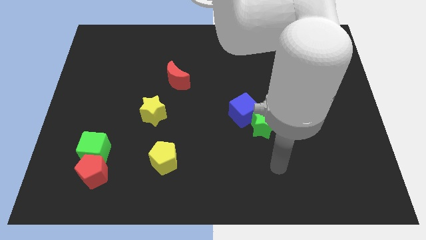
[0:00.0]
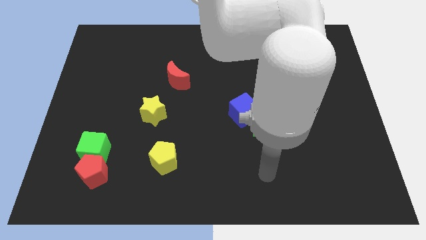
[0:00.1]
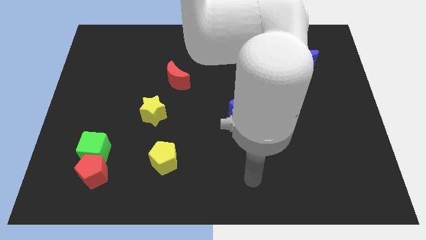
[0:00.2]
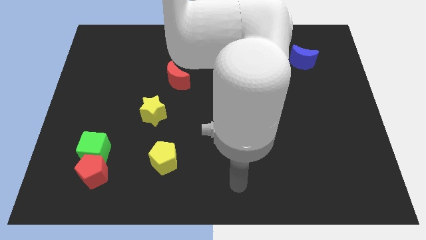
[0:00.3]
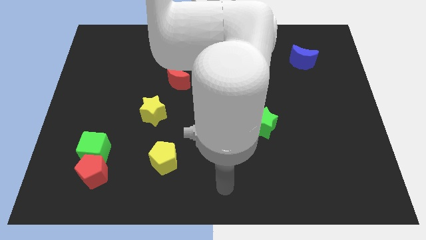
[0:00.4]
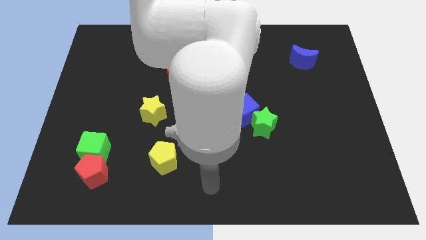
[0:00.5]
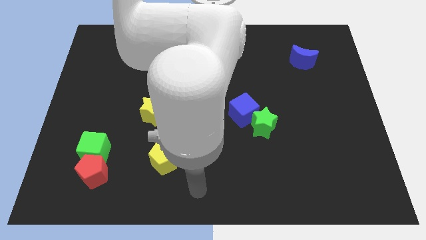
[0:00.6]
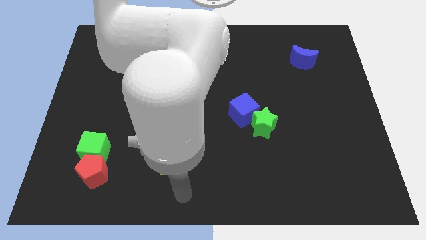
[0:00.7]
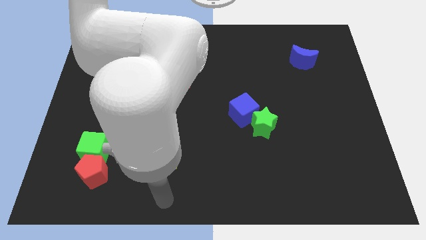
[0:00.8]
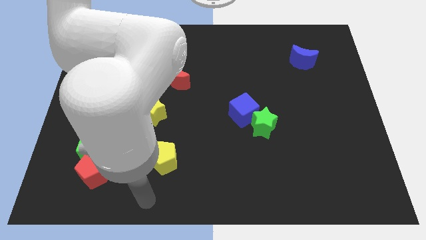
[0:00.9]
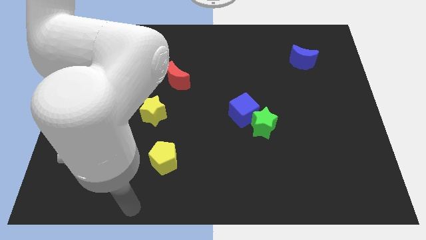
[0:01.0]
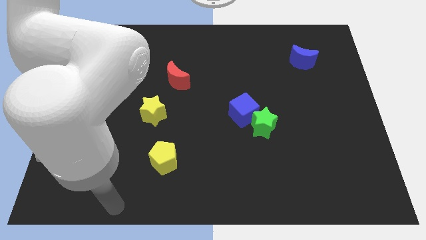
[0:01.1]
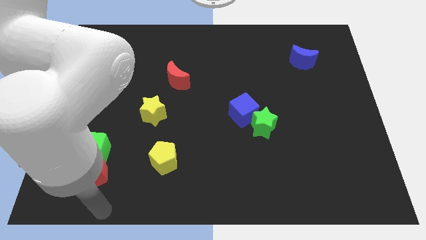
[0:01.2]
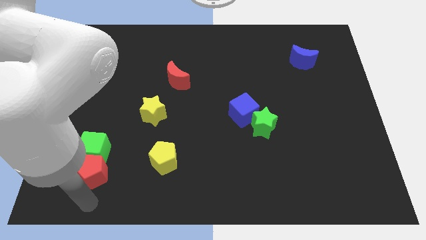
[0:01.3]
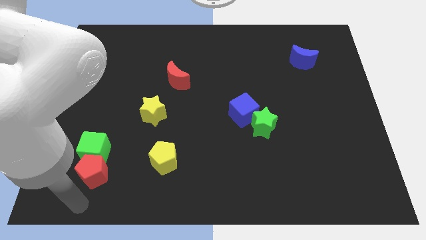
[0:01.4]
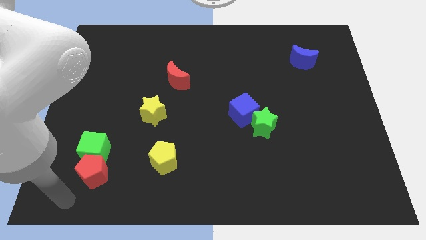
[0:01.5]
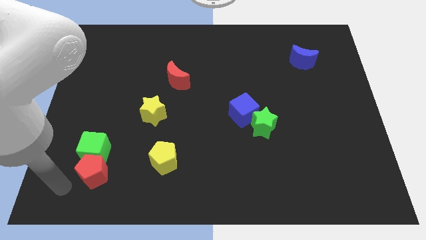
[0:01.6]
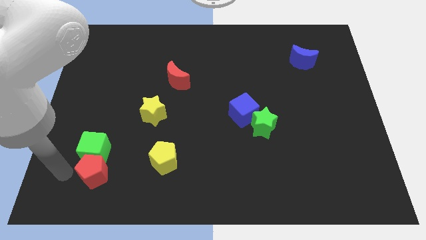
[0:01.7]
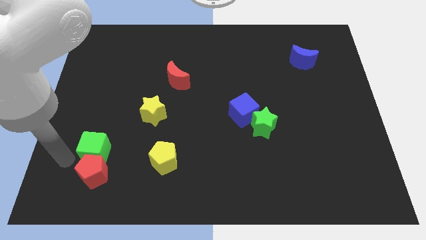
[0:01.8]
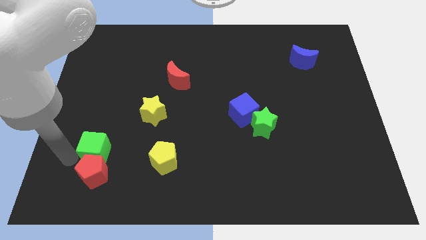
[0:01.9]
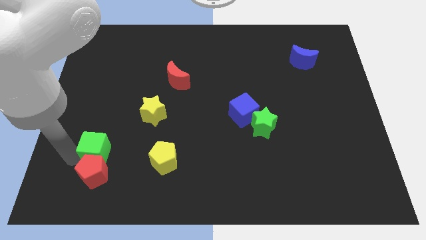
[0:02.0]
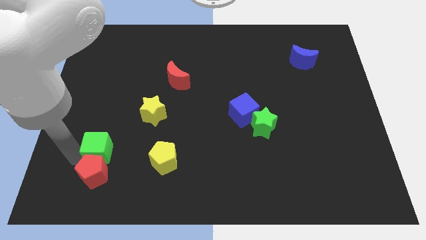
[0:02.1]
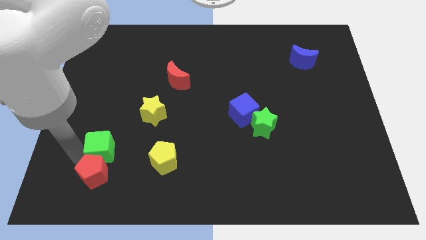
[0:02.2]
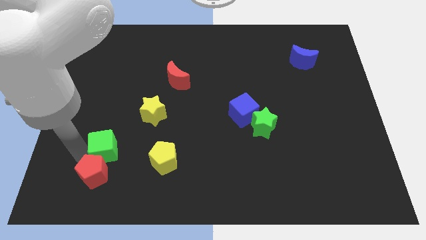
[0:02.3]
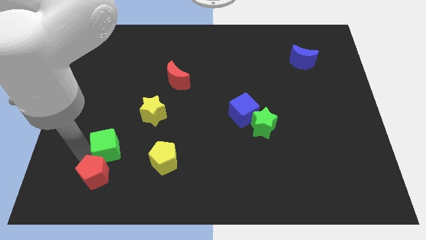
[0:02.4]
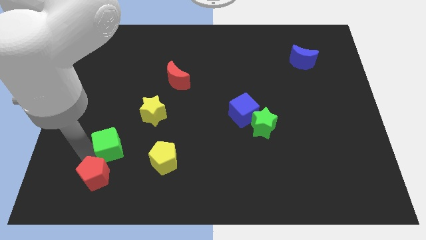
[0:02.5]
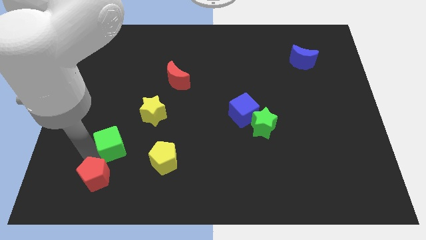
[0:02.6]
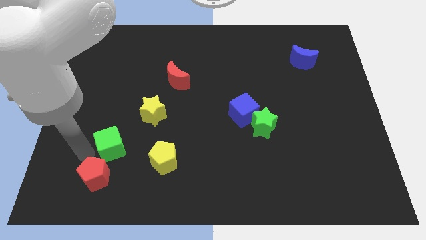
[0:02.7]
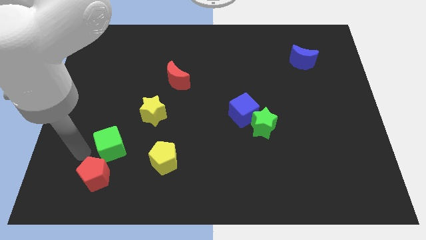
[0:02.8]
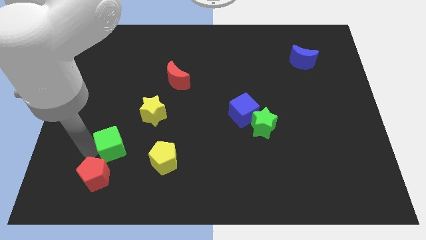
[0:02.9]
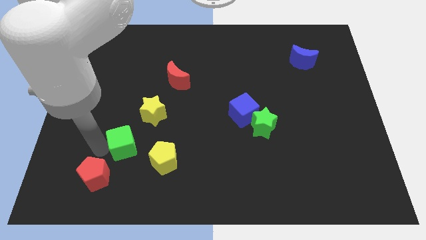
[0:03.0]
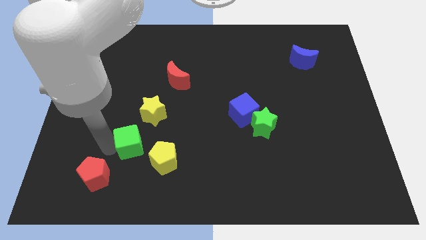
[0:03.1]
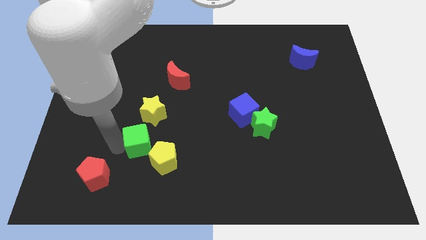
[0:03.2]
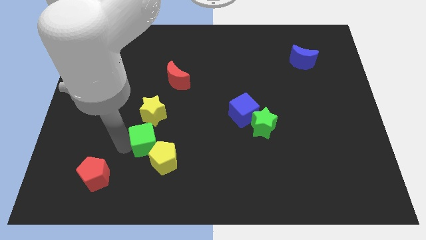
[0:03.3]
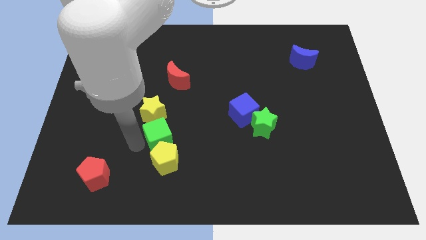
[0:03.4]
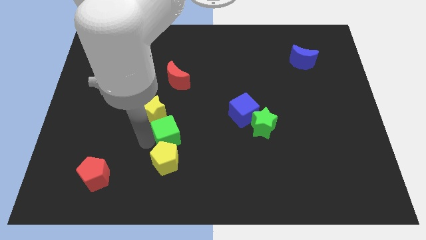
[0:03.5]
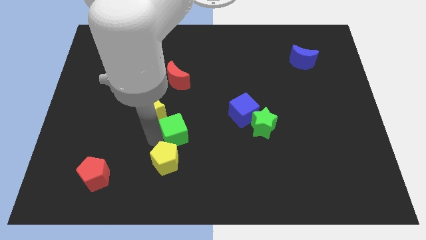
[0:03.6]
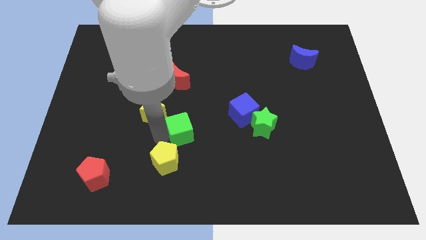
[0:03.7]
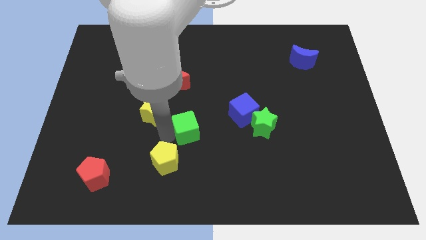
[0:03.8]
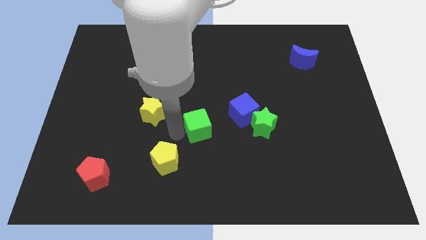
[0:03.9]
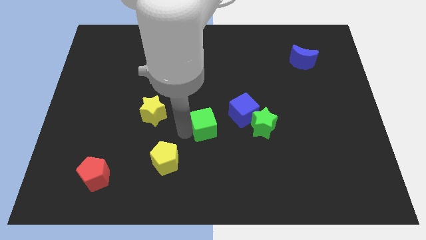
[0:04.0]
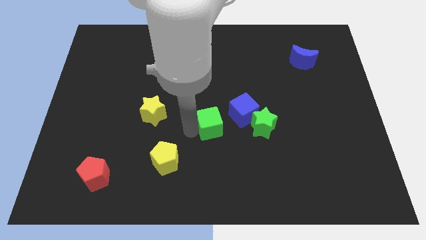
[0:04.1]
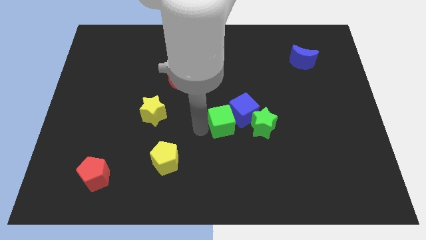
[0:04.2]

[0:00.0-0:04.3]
move the green cube towards the blue cube

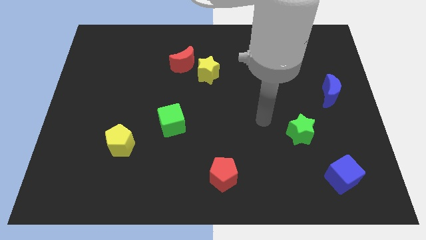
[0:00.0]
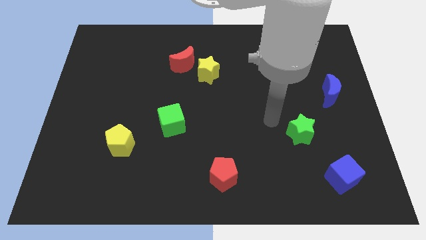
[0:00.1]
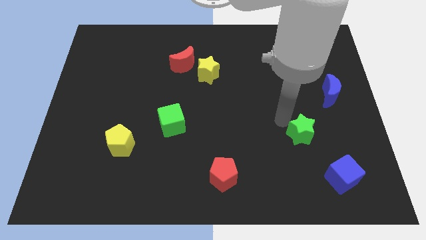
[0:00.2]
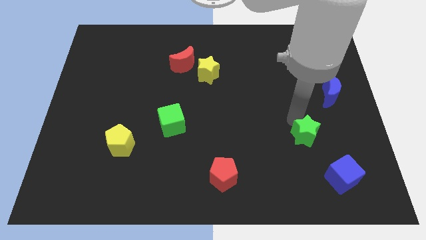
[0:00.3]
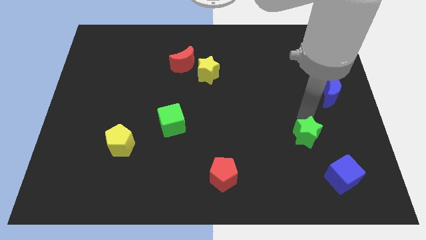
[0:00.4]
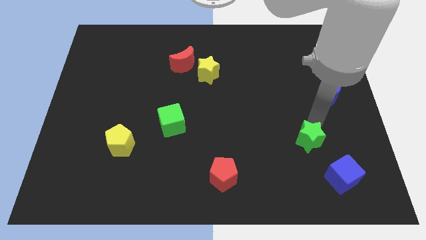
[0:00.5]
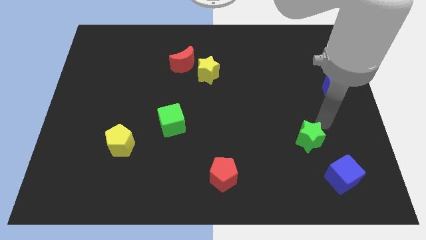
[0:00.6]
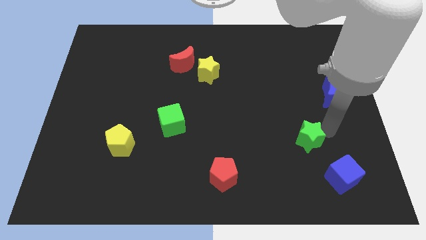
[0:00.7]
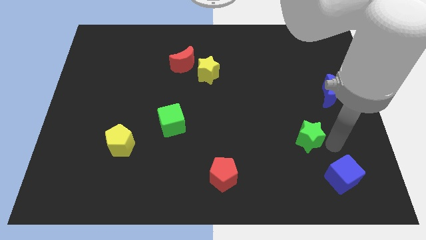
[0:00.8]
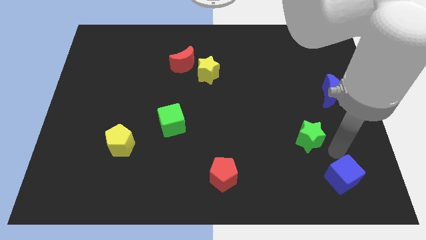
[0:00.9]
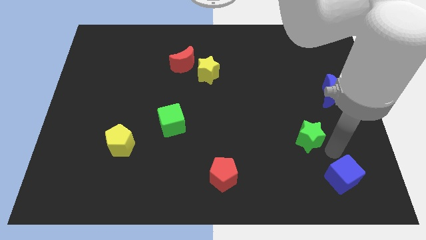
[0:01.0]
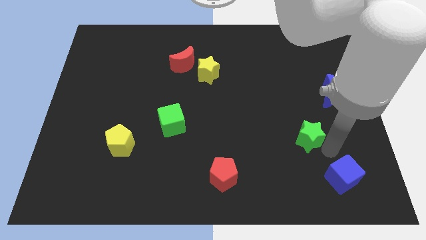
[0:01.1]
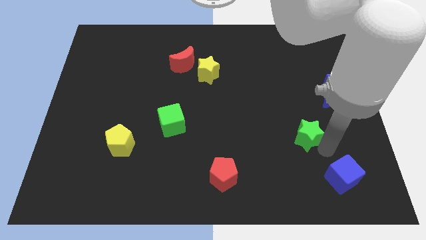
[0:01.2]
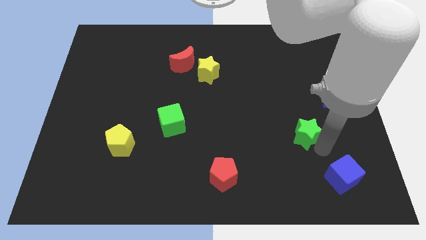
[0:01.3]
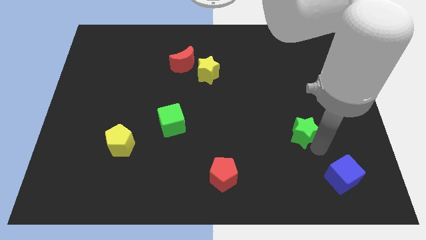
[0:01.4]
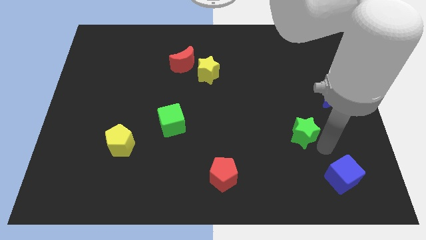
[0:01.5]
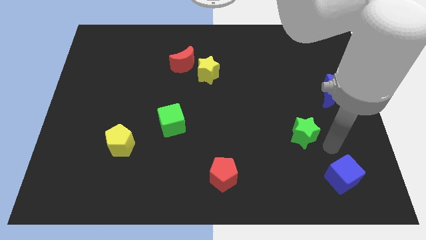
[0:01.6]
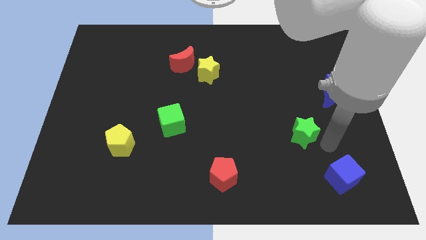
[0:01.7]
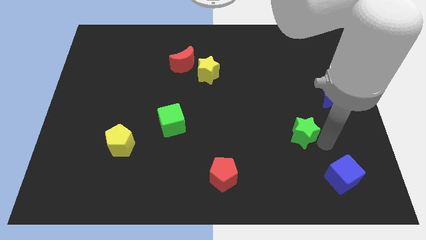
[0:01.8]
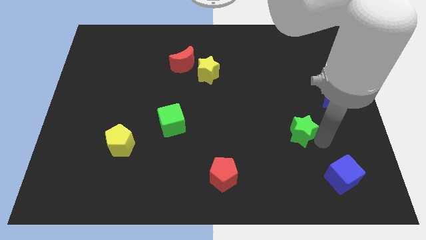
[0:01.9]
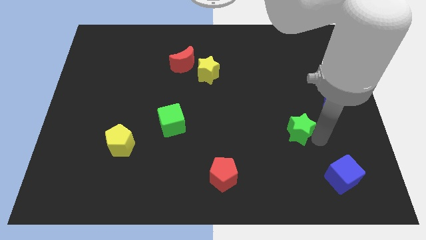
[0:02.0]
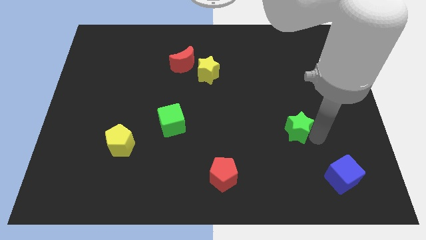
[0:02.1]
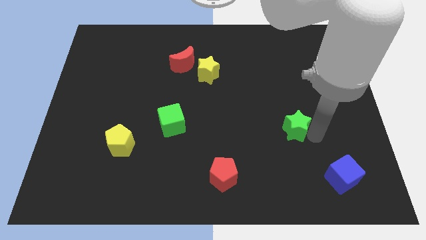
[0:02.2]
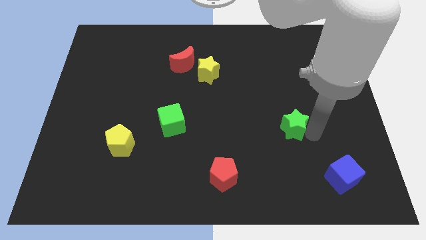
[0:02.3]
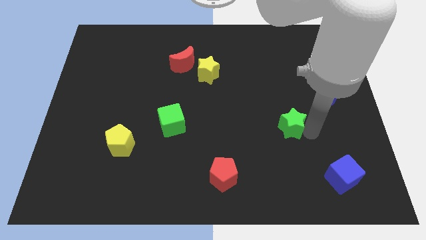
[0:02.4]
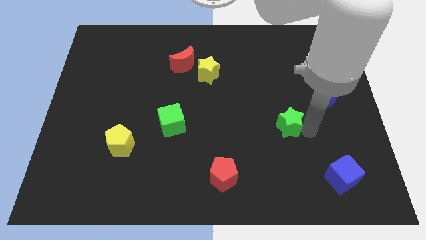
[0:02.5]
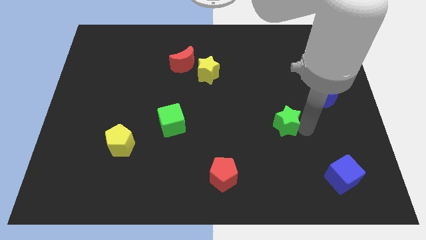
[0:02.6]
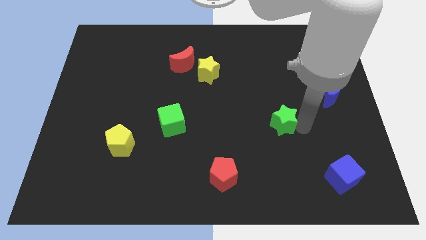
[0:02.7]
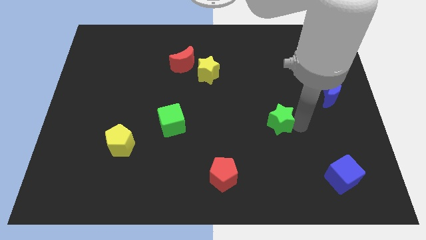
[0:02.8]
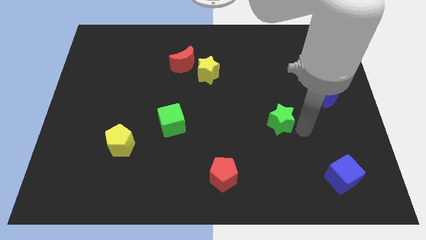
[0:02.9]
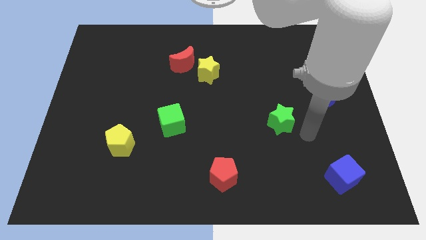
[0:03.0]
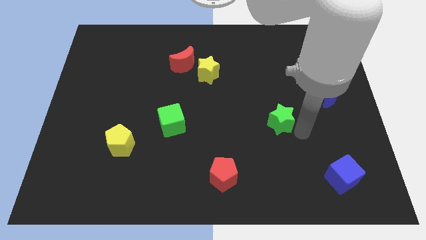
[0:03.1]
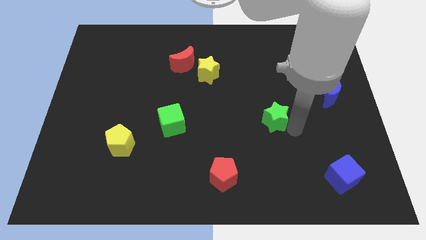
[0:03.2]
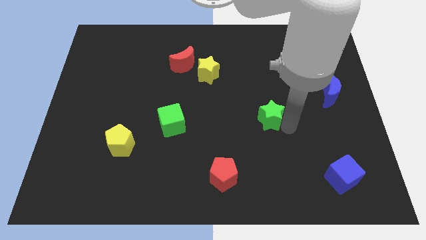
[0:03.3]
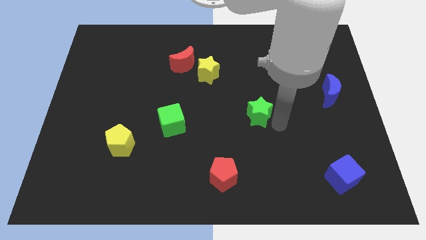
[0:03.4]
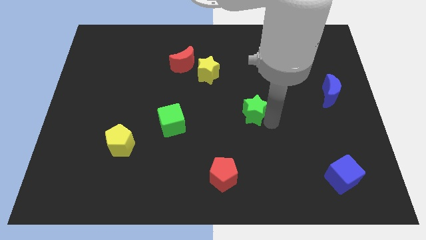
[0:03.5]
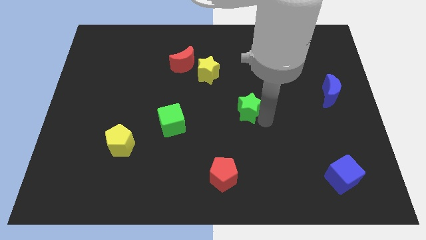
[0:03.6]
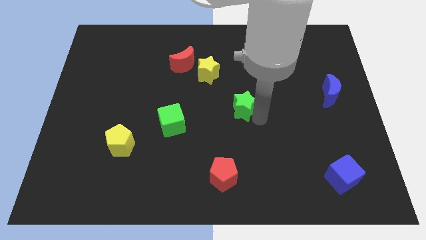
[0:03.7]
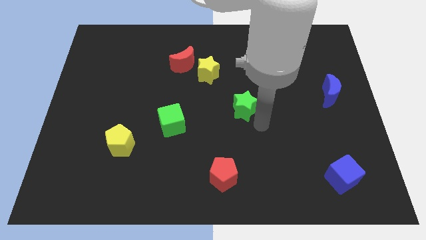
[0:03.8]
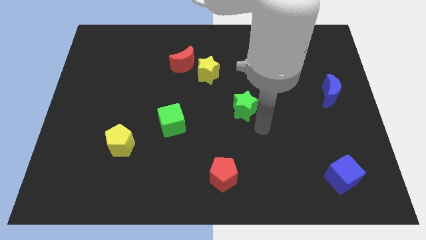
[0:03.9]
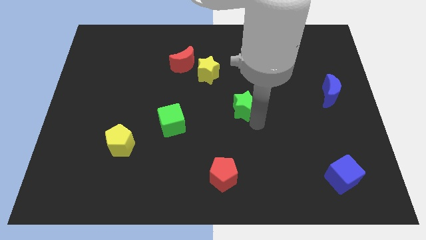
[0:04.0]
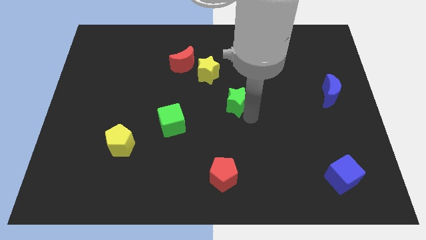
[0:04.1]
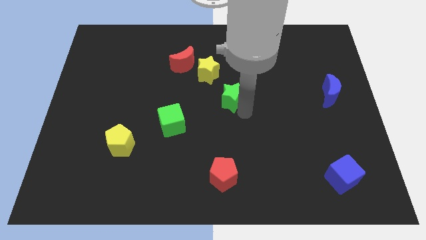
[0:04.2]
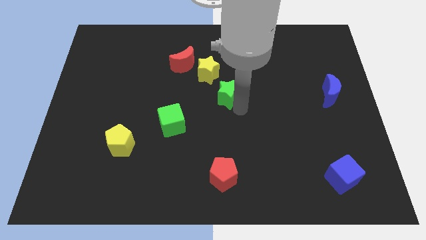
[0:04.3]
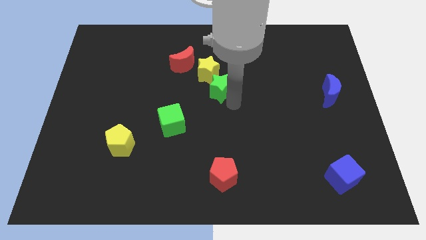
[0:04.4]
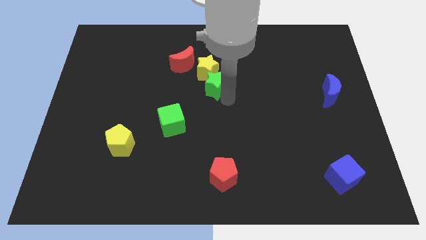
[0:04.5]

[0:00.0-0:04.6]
put the green star to the yellow star
